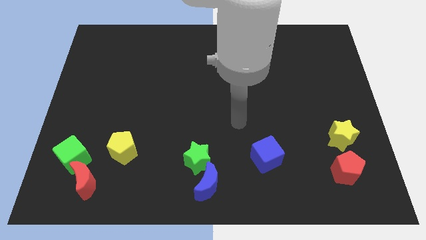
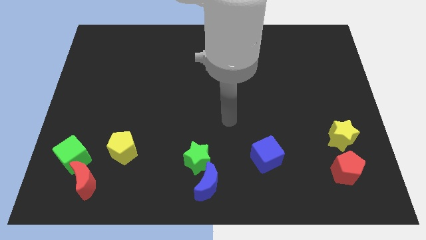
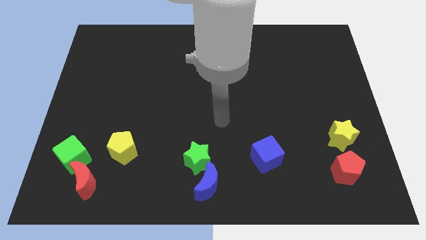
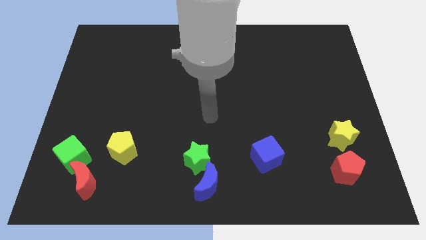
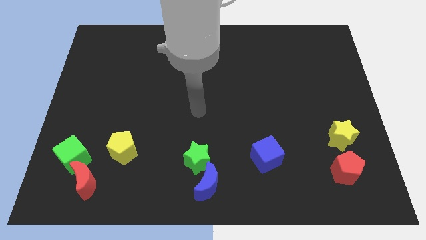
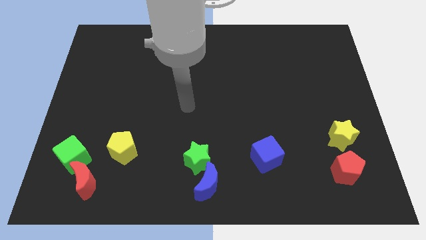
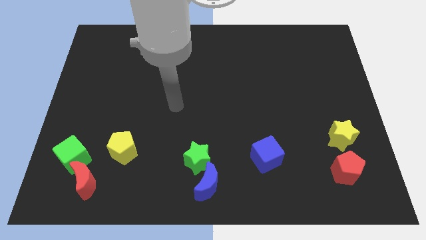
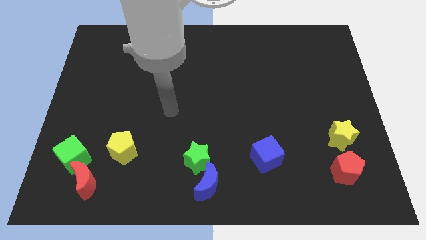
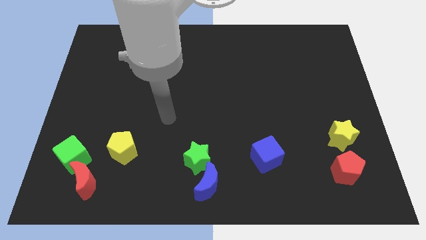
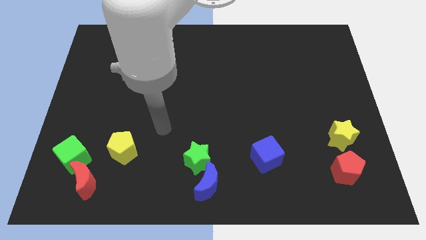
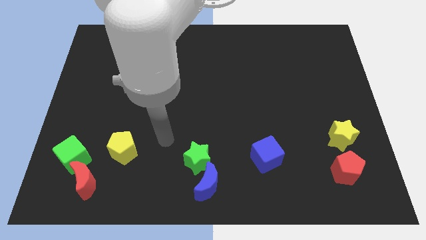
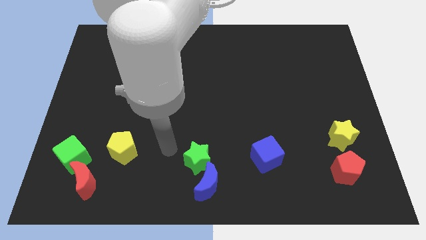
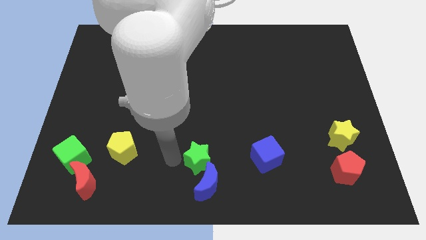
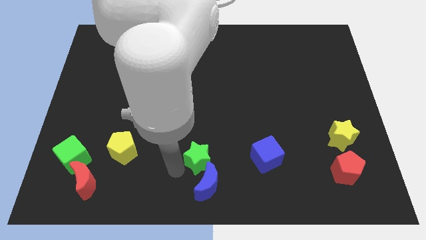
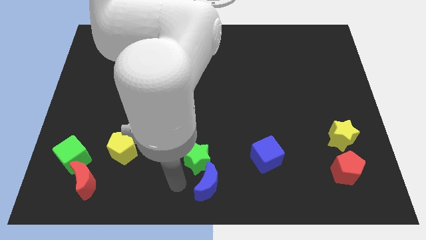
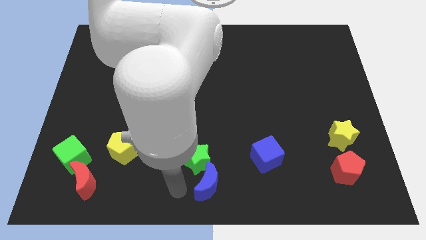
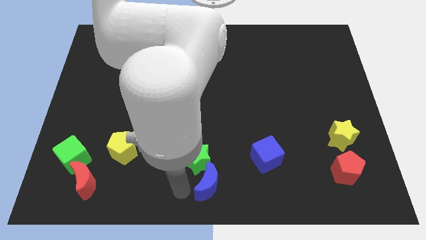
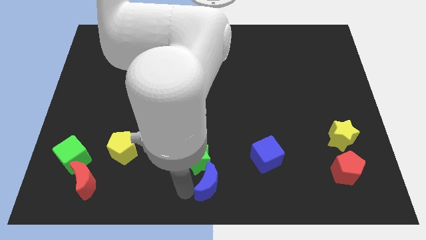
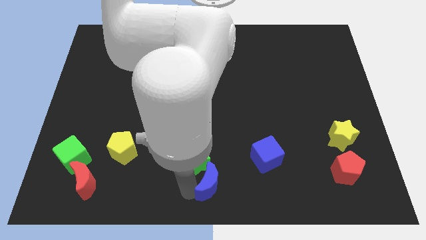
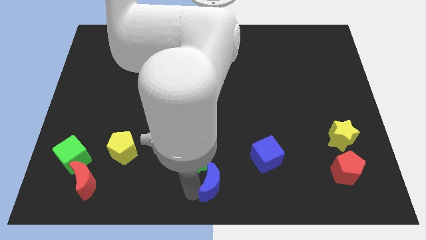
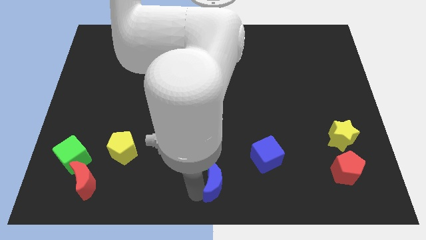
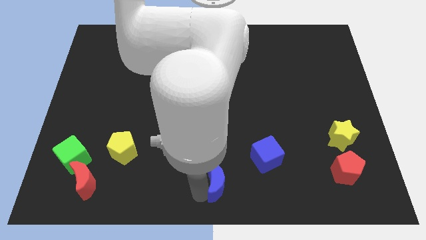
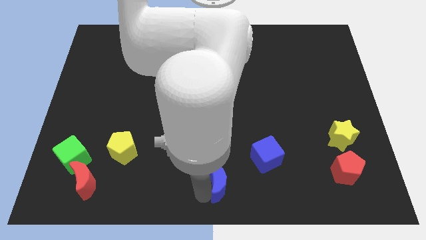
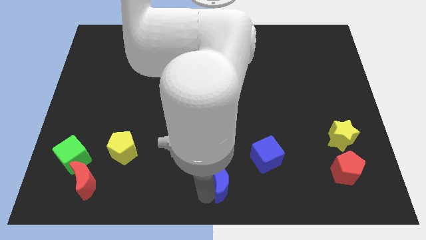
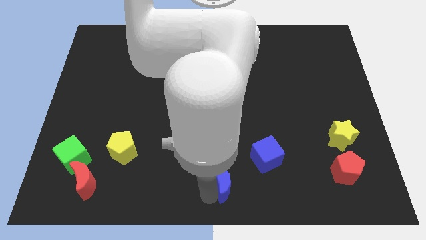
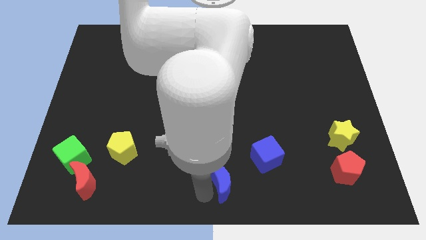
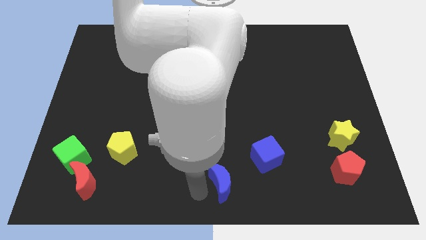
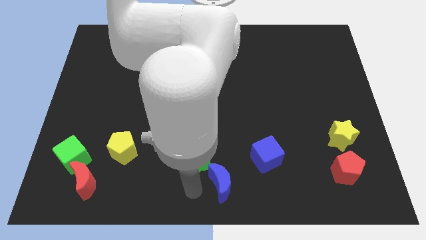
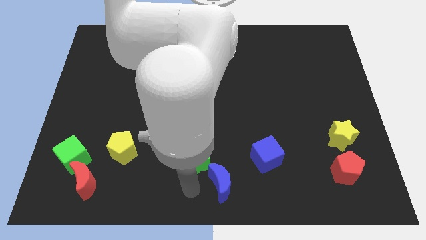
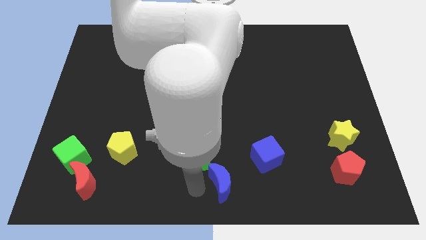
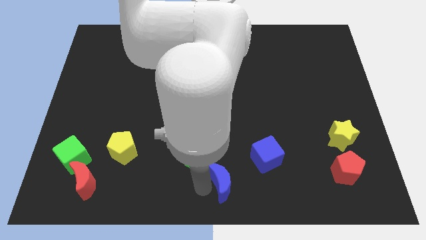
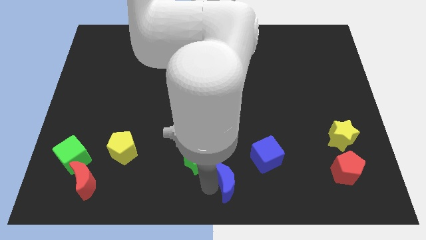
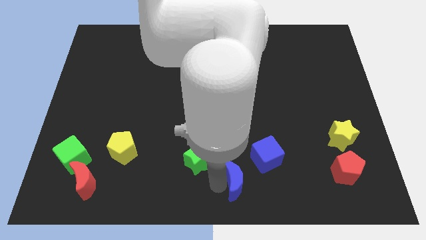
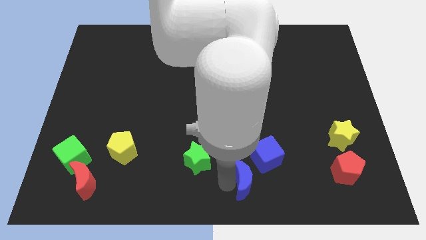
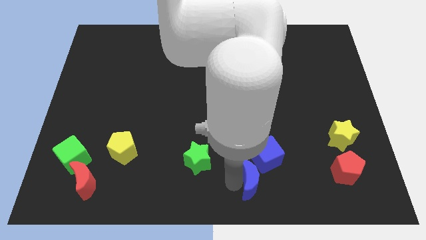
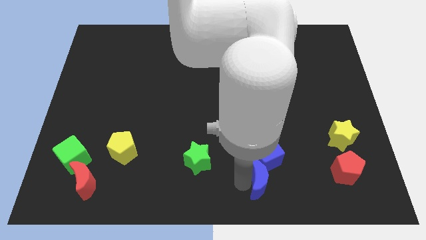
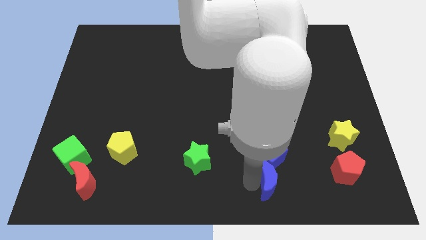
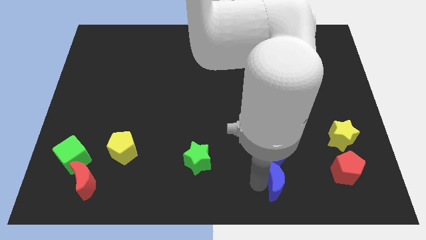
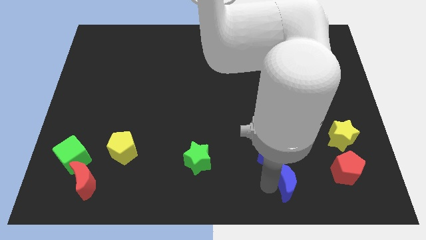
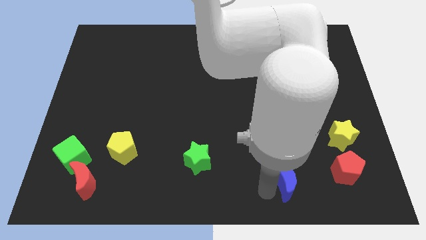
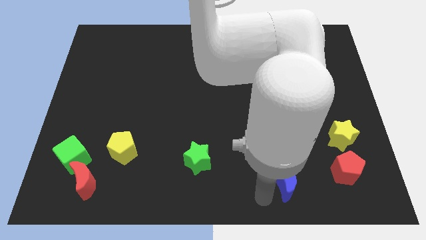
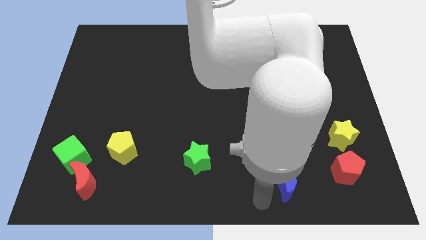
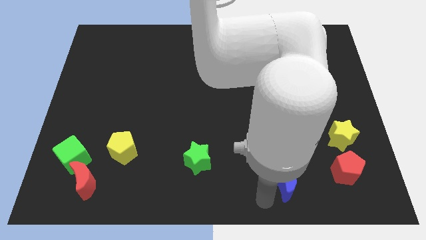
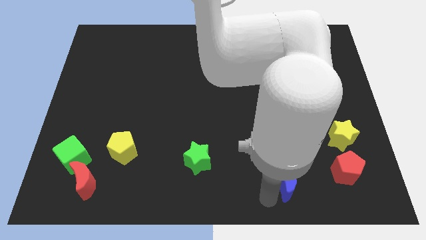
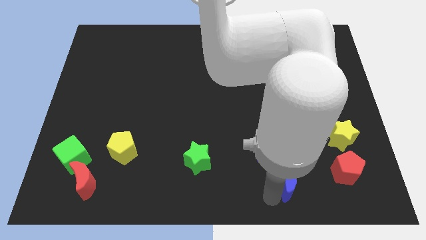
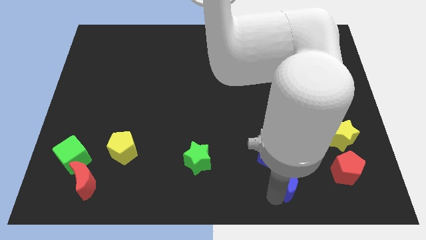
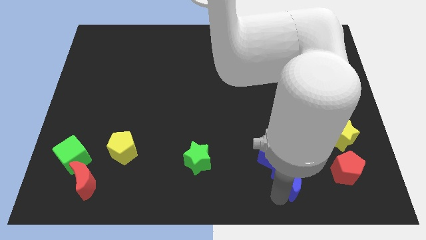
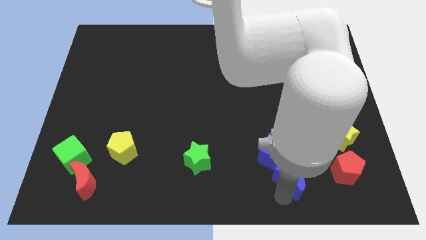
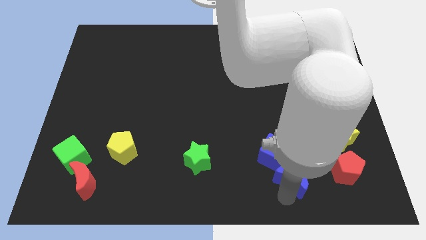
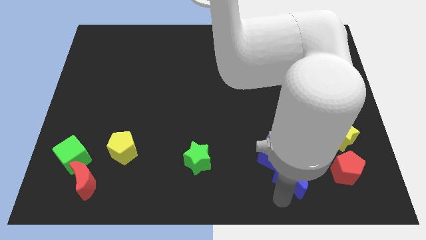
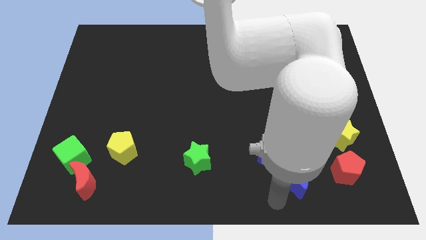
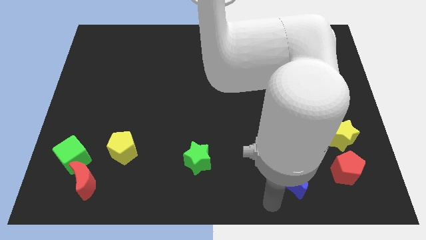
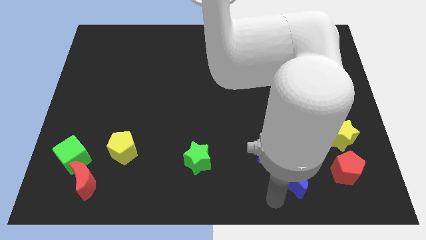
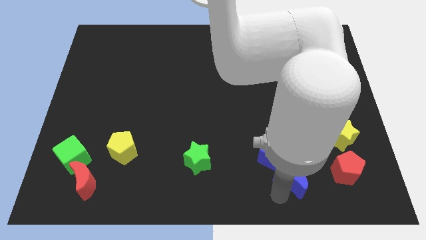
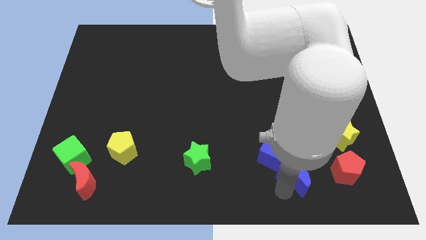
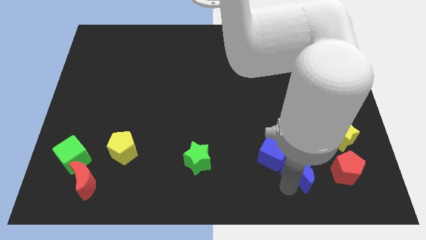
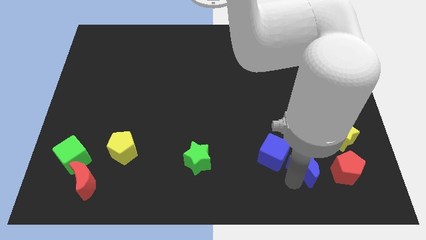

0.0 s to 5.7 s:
slide the blue moon to the bottom left of the yellow star
